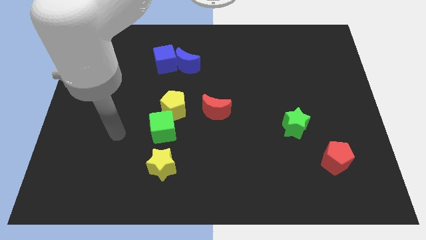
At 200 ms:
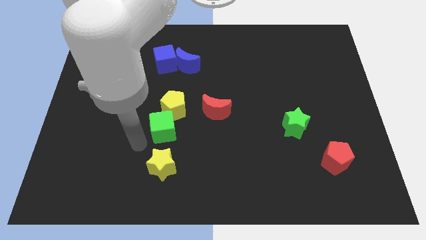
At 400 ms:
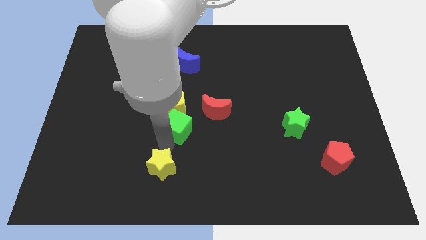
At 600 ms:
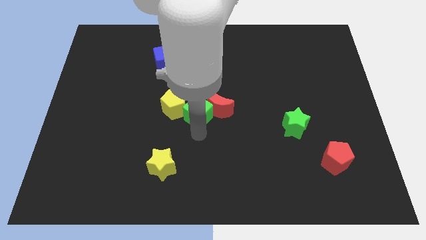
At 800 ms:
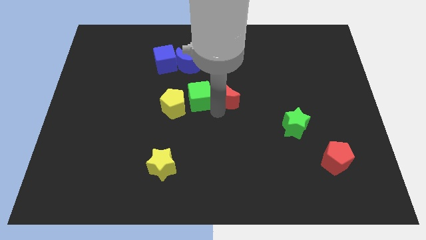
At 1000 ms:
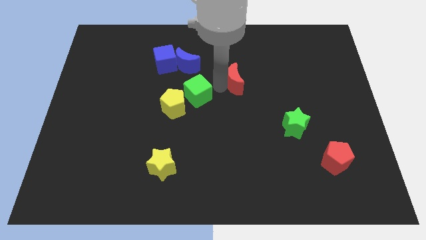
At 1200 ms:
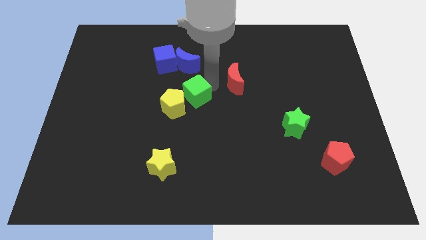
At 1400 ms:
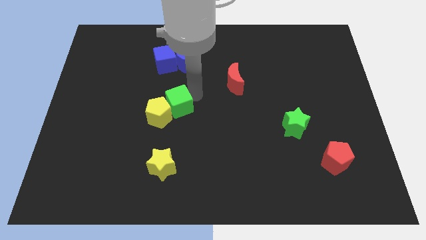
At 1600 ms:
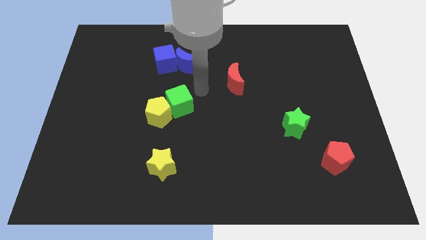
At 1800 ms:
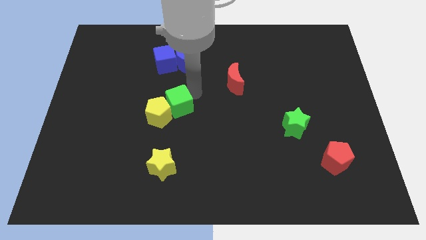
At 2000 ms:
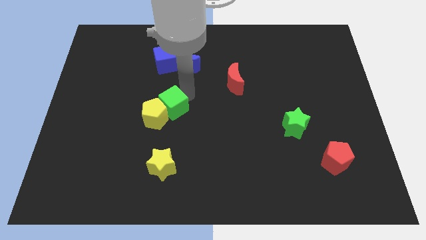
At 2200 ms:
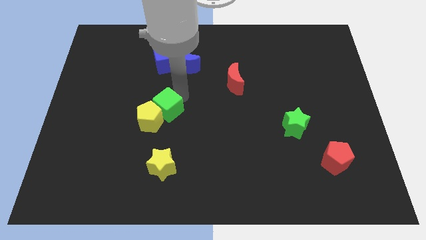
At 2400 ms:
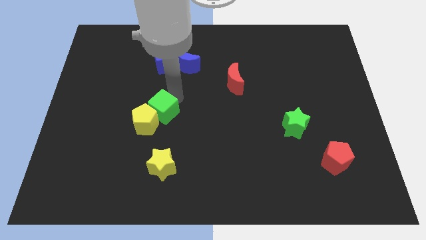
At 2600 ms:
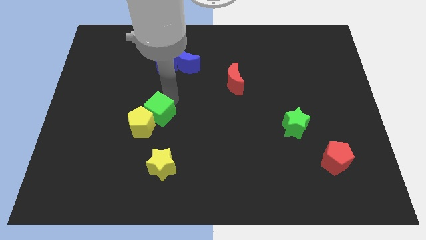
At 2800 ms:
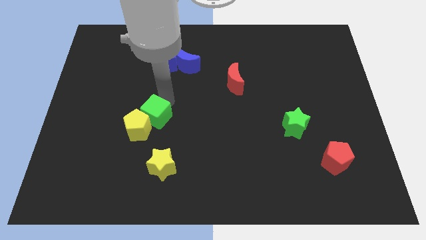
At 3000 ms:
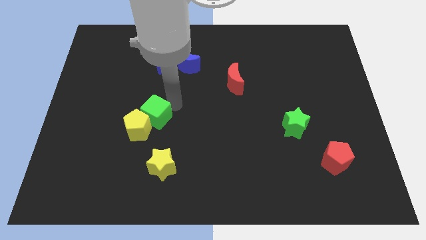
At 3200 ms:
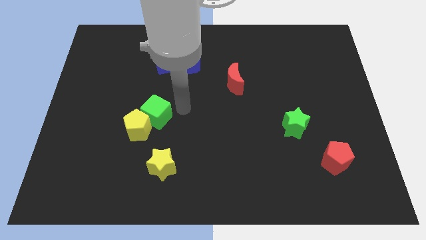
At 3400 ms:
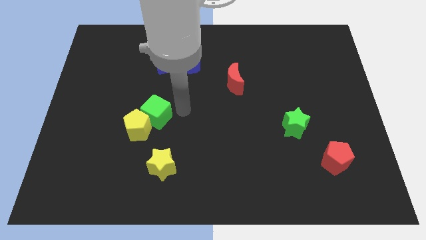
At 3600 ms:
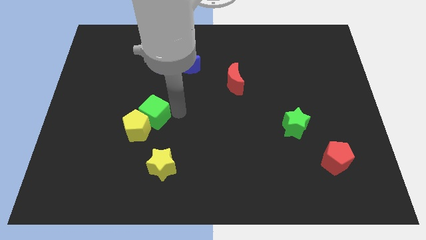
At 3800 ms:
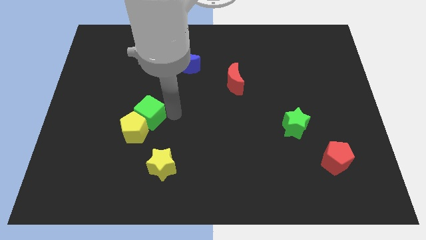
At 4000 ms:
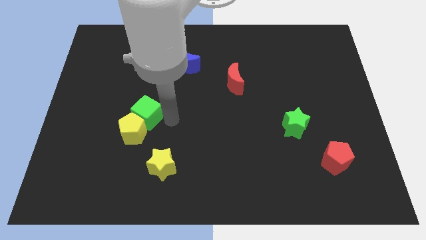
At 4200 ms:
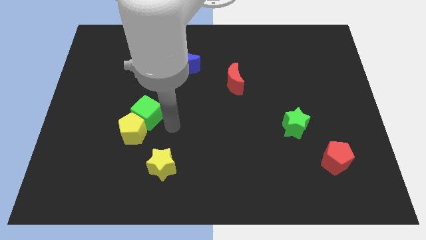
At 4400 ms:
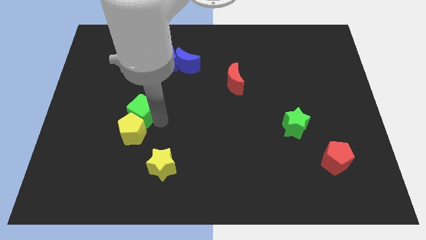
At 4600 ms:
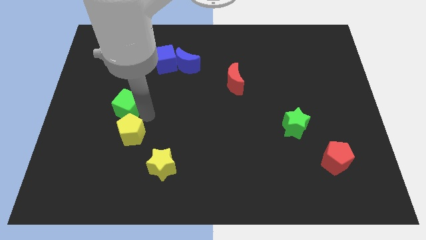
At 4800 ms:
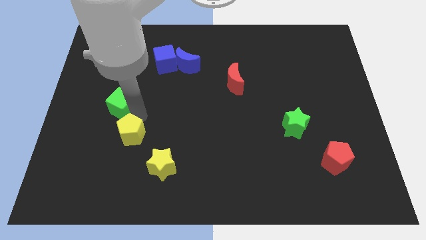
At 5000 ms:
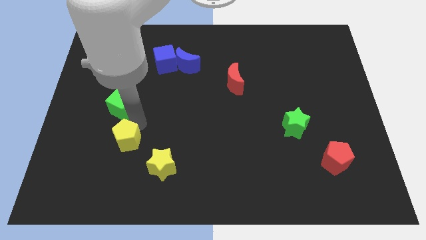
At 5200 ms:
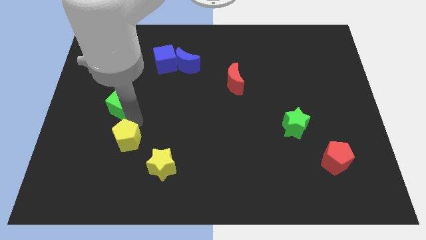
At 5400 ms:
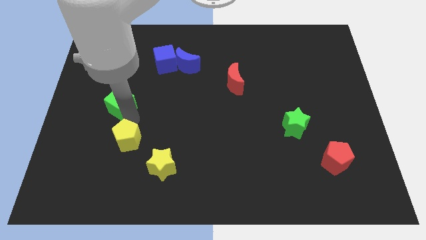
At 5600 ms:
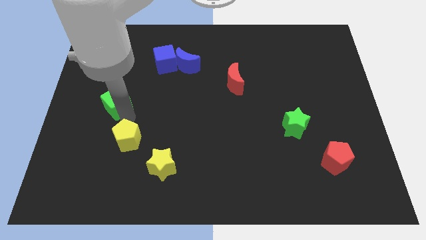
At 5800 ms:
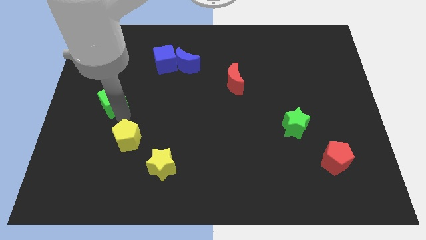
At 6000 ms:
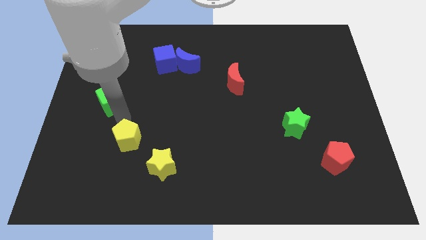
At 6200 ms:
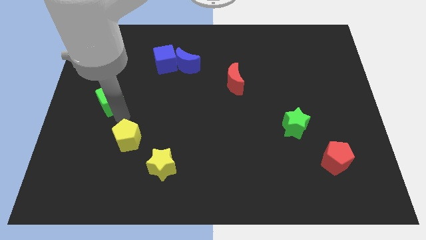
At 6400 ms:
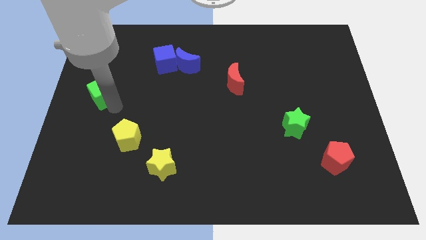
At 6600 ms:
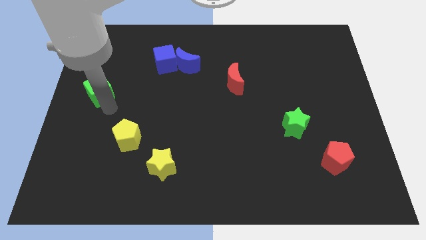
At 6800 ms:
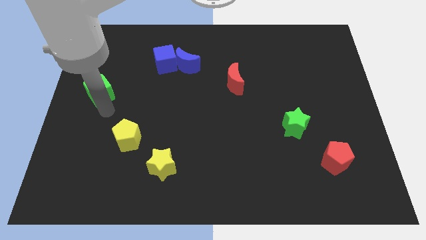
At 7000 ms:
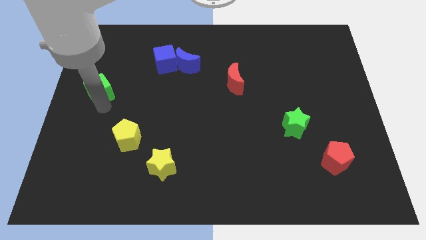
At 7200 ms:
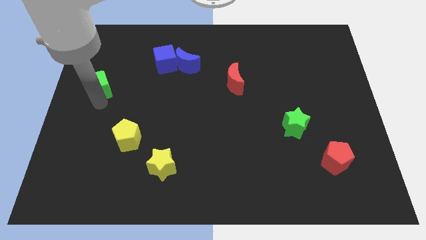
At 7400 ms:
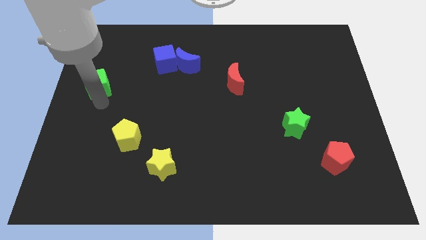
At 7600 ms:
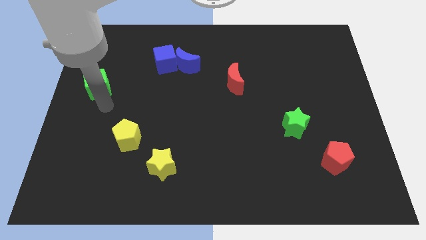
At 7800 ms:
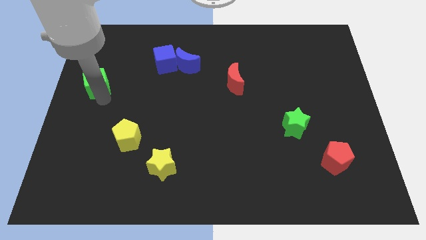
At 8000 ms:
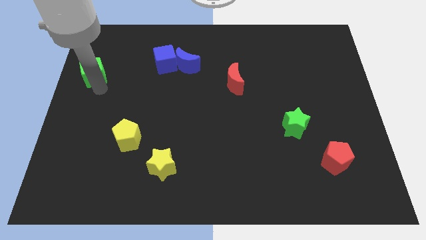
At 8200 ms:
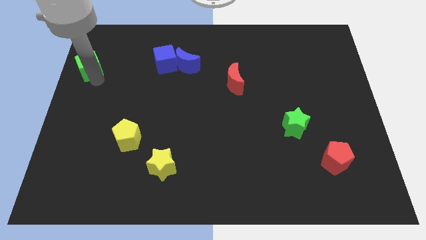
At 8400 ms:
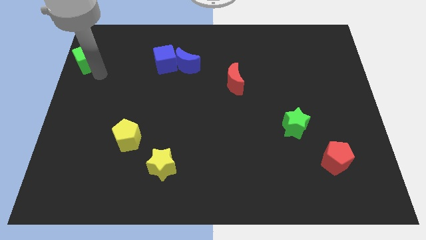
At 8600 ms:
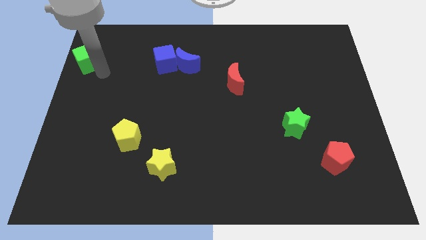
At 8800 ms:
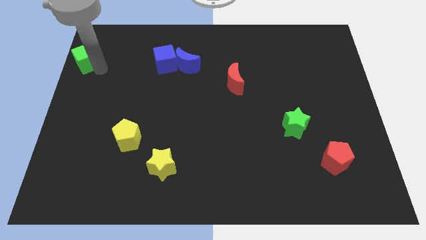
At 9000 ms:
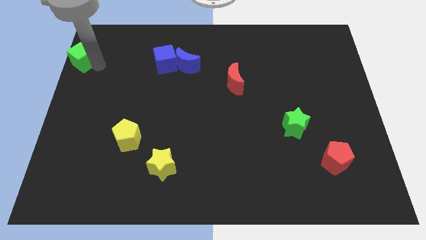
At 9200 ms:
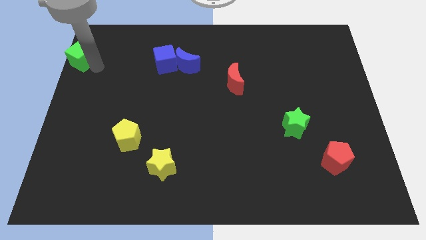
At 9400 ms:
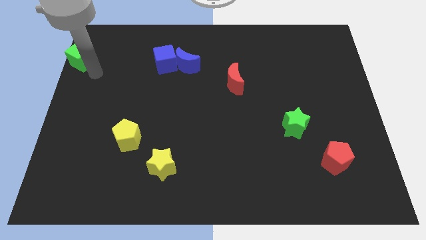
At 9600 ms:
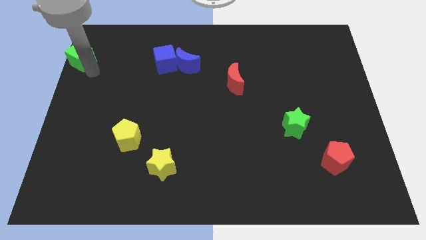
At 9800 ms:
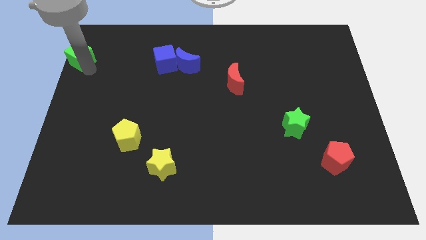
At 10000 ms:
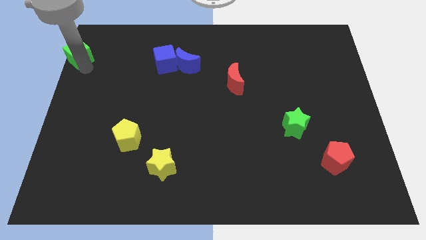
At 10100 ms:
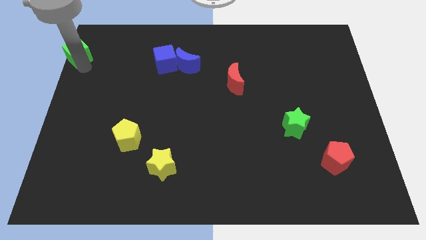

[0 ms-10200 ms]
put the green cube to the top left of the board

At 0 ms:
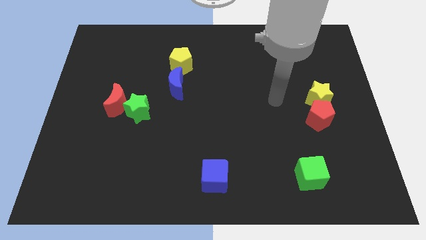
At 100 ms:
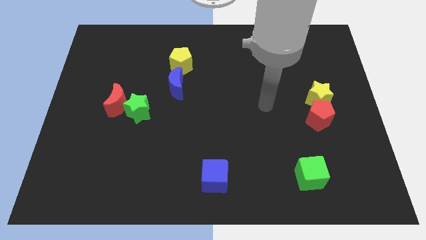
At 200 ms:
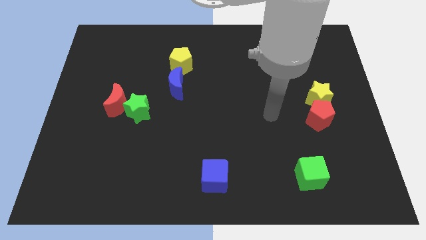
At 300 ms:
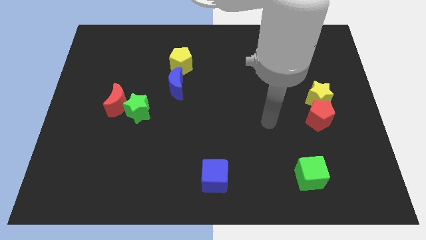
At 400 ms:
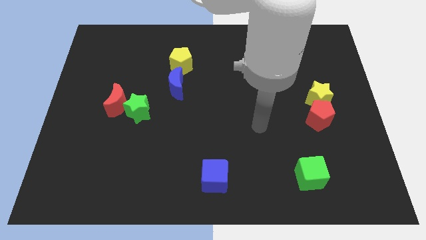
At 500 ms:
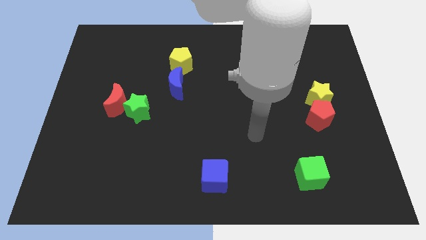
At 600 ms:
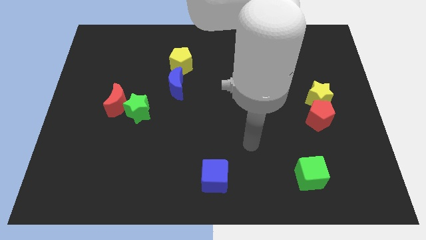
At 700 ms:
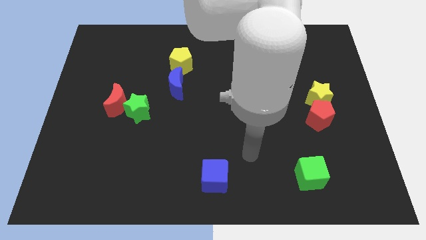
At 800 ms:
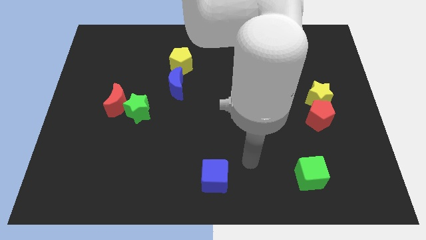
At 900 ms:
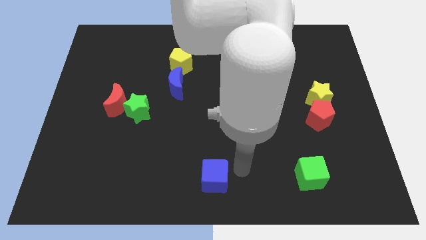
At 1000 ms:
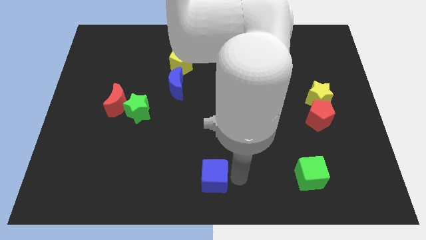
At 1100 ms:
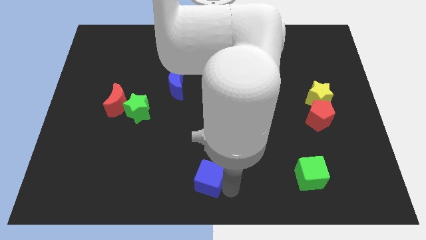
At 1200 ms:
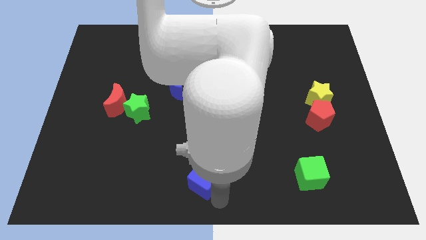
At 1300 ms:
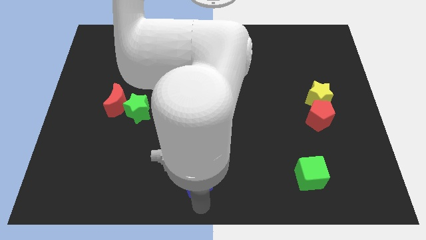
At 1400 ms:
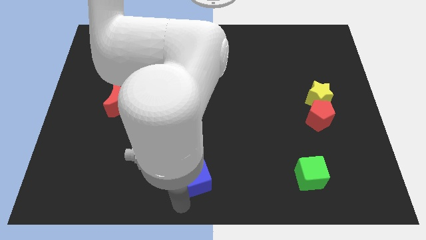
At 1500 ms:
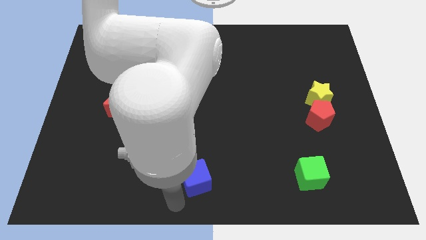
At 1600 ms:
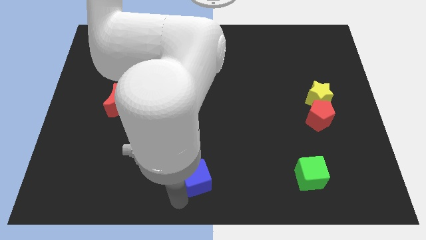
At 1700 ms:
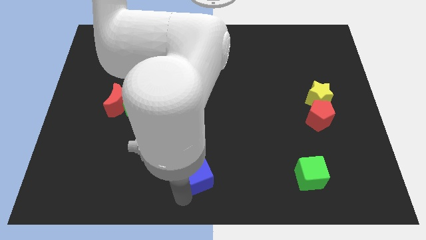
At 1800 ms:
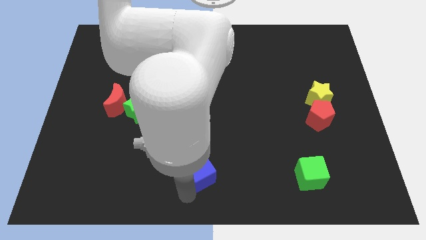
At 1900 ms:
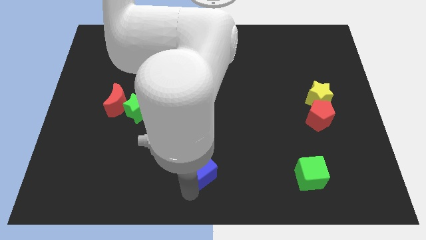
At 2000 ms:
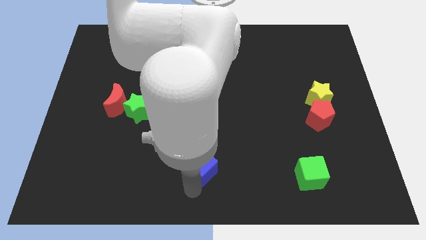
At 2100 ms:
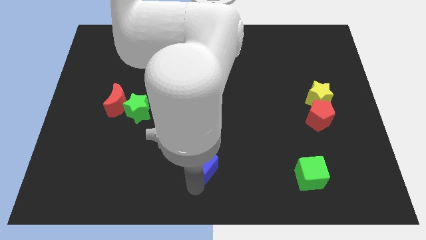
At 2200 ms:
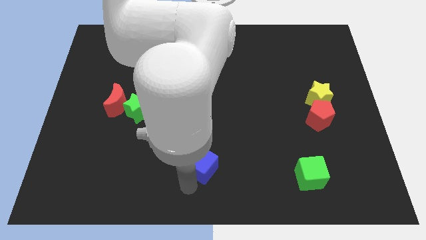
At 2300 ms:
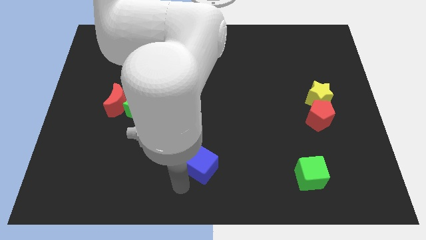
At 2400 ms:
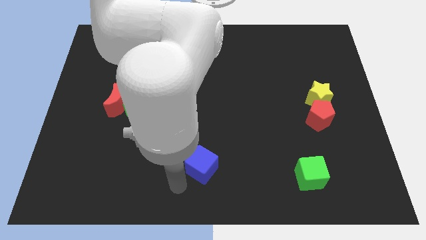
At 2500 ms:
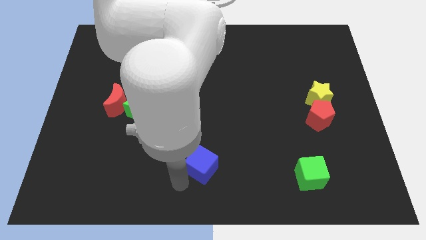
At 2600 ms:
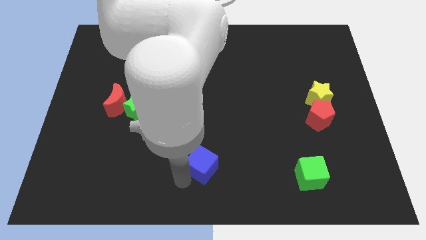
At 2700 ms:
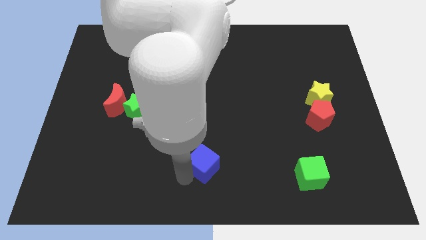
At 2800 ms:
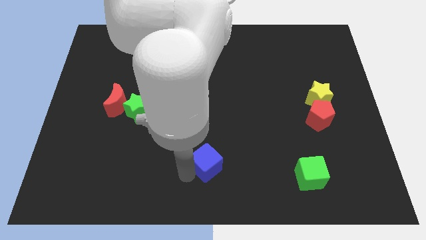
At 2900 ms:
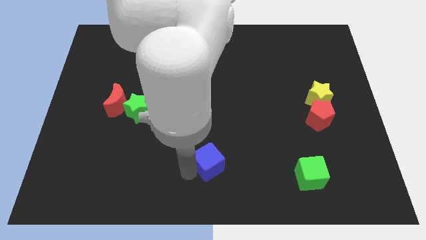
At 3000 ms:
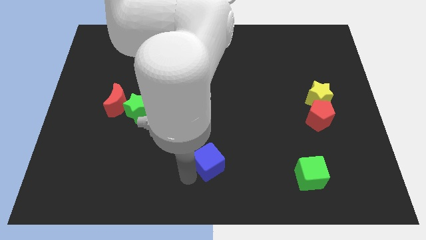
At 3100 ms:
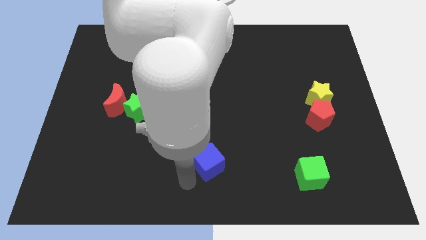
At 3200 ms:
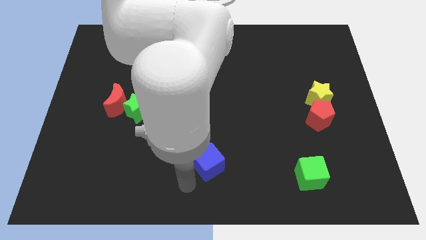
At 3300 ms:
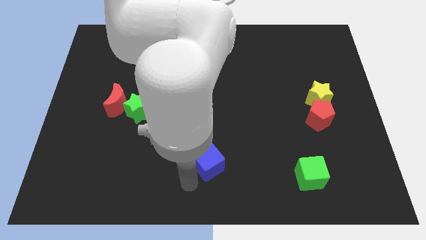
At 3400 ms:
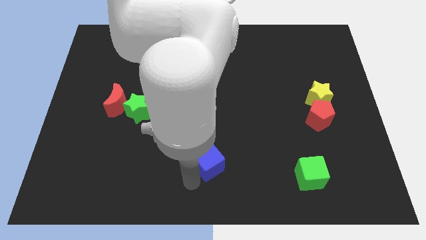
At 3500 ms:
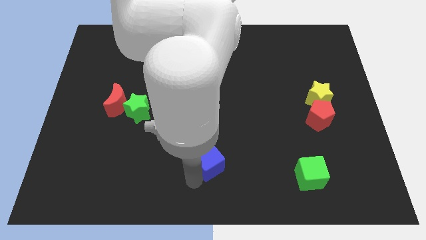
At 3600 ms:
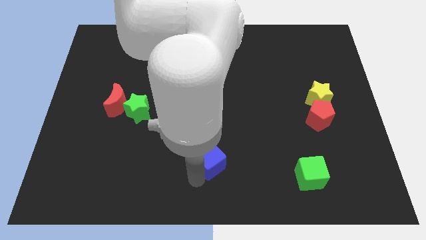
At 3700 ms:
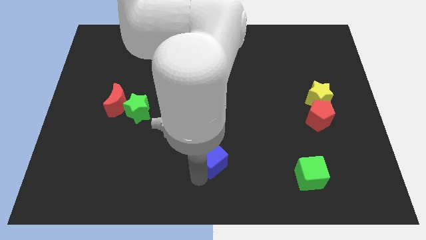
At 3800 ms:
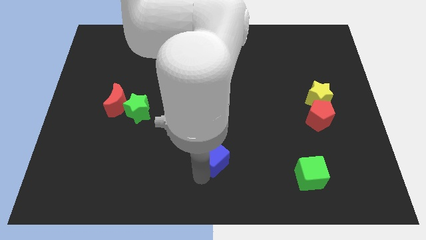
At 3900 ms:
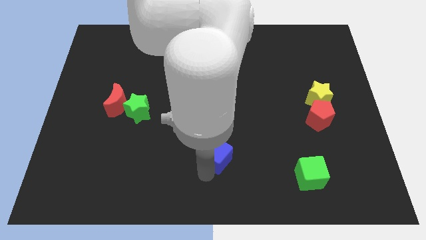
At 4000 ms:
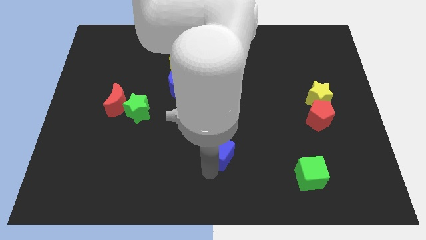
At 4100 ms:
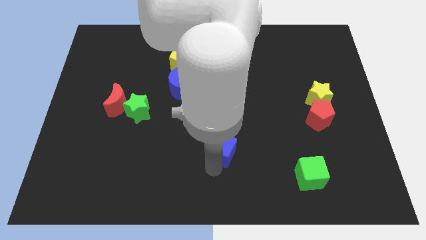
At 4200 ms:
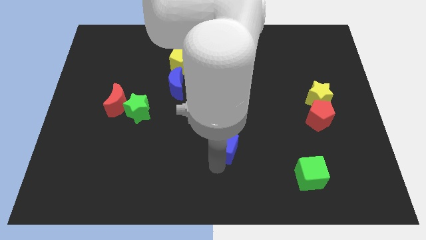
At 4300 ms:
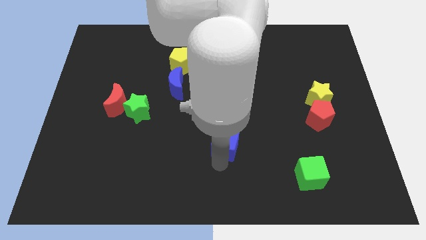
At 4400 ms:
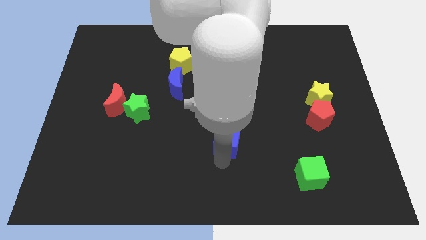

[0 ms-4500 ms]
put the blue cube to the middle
